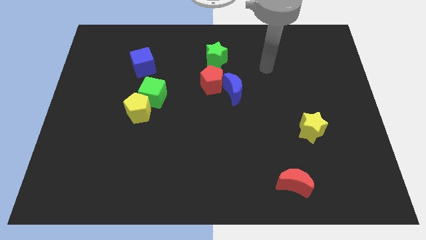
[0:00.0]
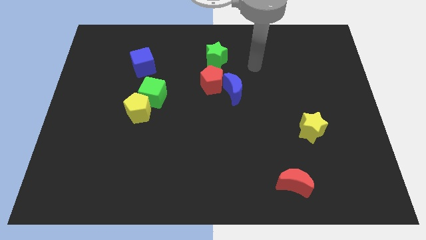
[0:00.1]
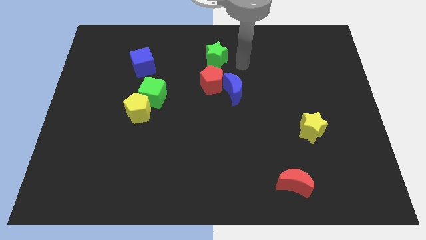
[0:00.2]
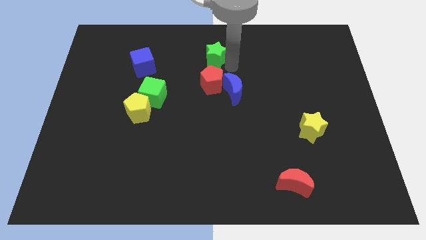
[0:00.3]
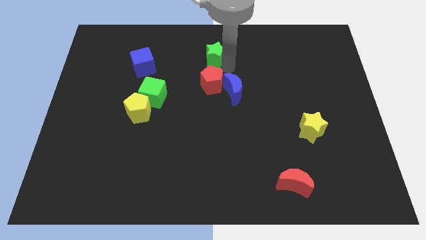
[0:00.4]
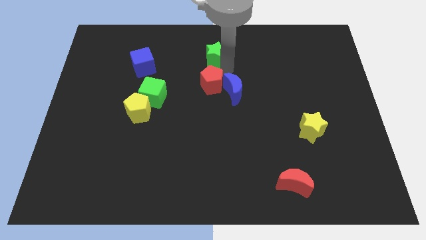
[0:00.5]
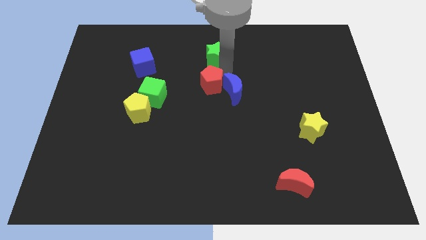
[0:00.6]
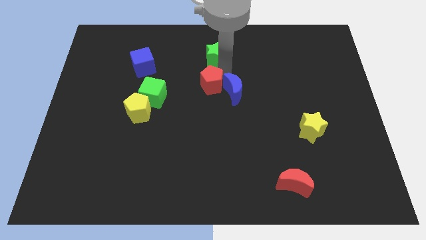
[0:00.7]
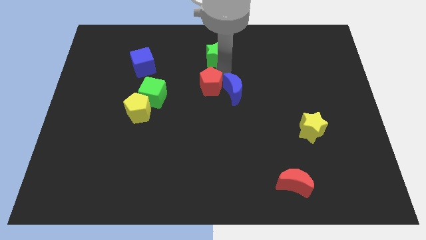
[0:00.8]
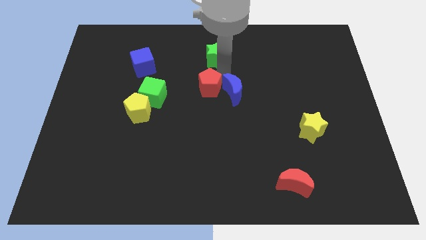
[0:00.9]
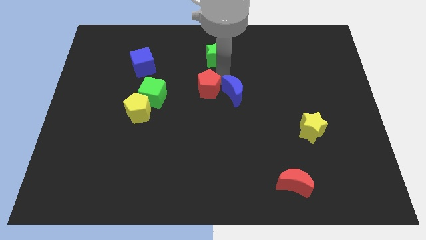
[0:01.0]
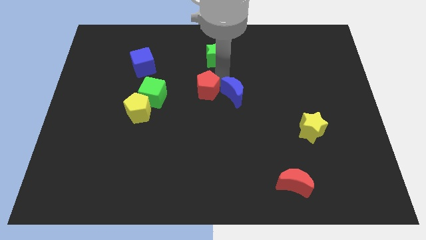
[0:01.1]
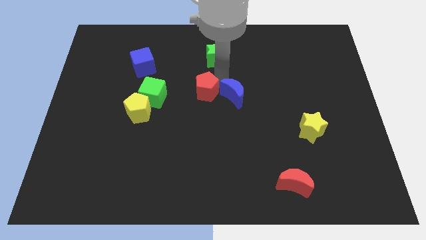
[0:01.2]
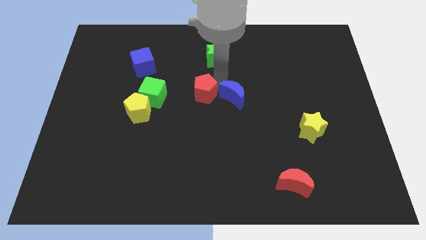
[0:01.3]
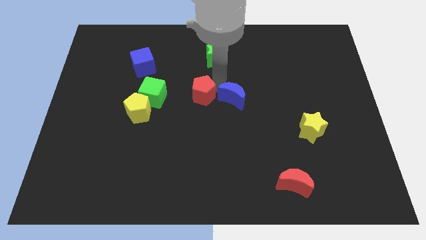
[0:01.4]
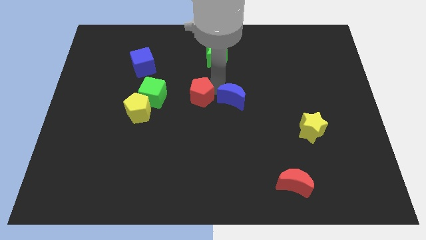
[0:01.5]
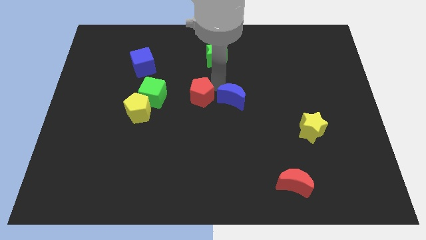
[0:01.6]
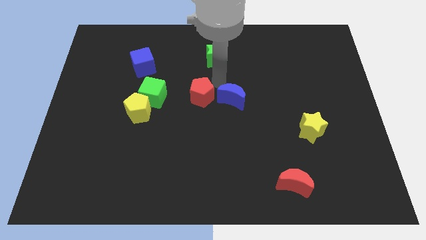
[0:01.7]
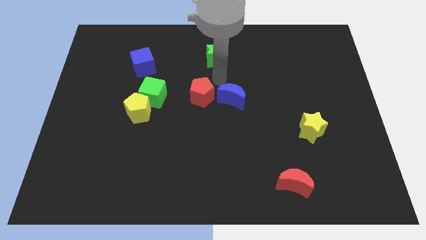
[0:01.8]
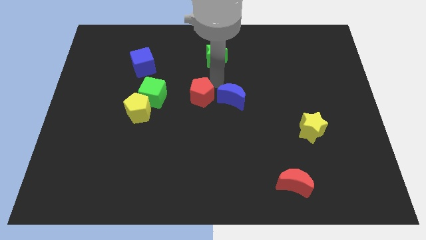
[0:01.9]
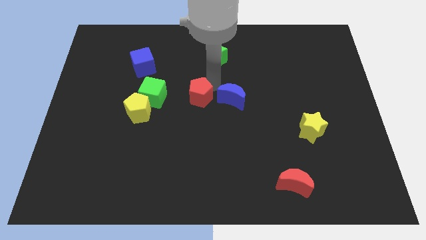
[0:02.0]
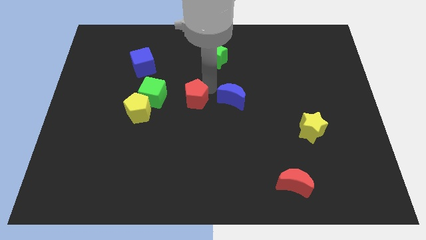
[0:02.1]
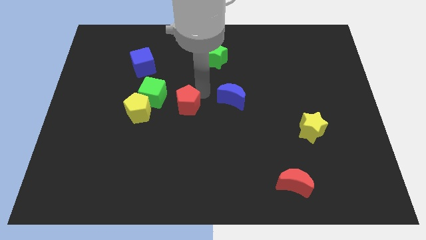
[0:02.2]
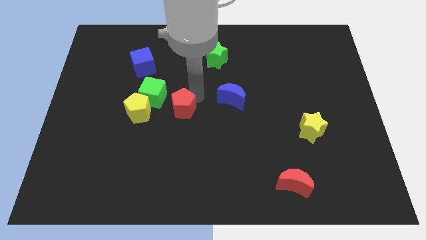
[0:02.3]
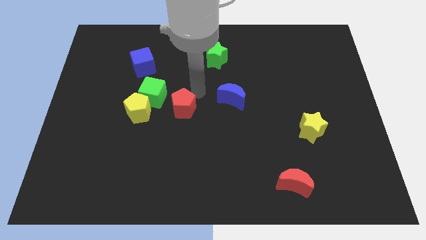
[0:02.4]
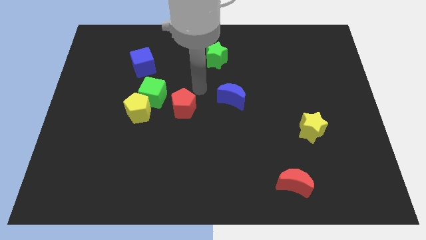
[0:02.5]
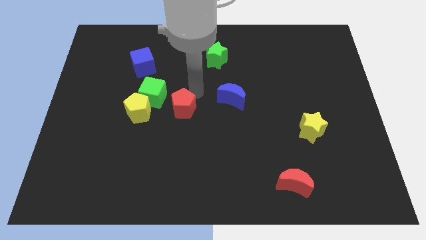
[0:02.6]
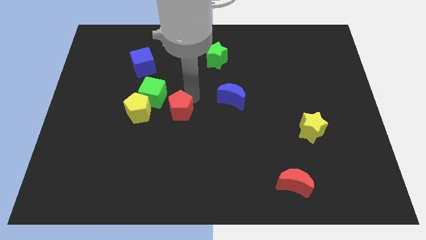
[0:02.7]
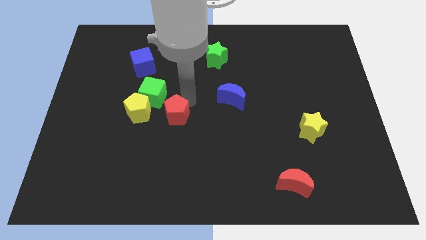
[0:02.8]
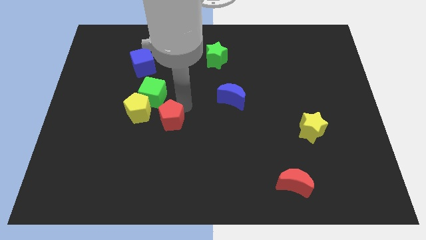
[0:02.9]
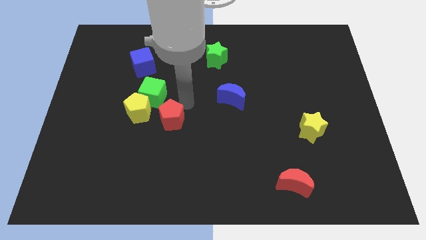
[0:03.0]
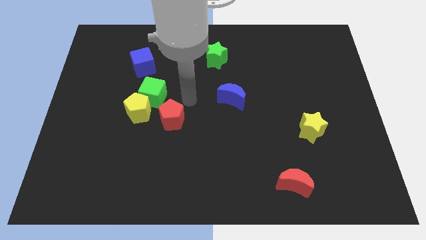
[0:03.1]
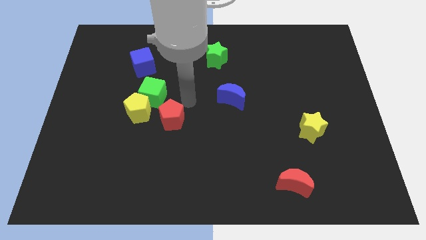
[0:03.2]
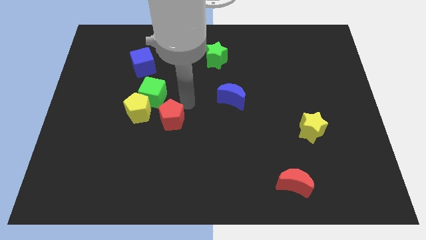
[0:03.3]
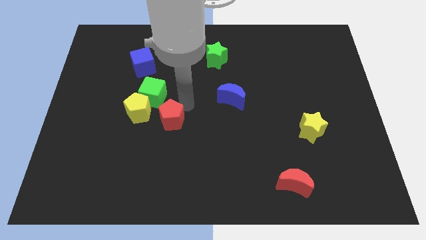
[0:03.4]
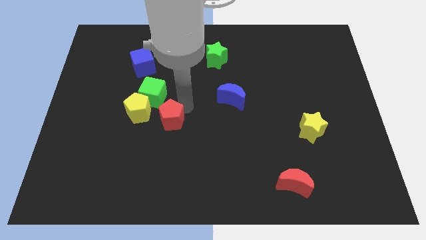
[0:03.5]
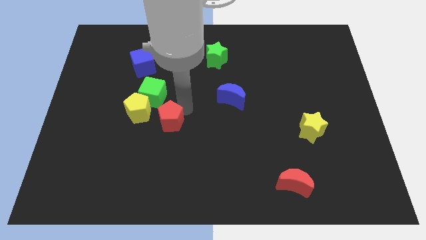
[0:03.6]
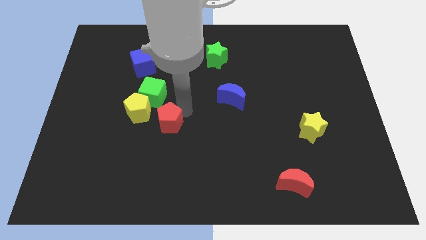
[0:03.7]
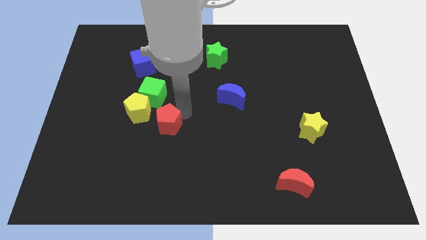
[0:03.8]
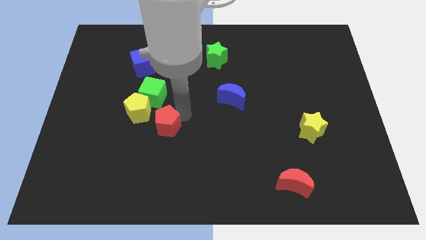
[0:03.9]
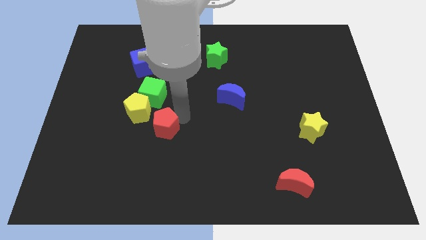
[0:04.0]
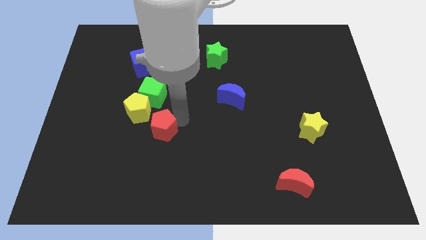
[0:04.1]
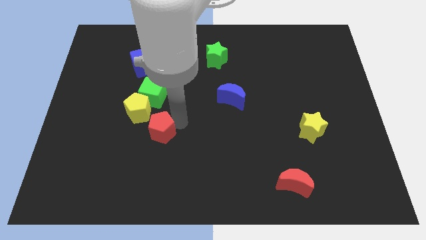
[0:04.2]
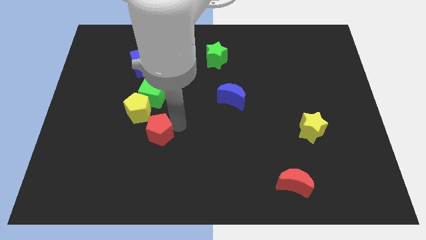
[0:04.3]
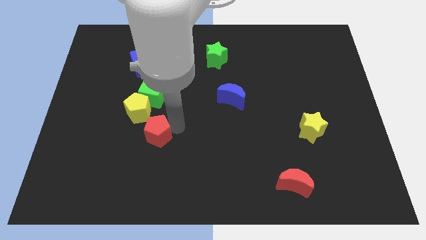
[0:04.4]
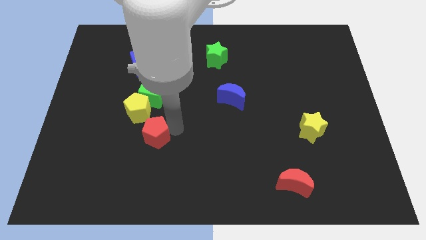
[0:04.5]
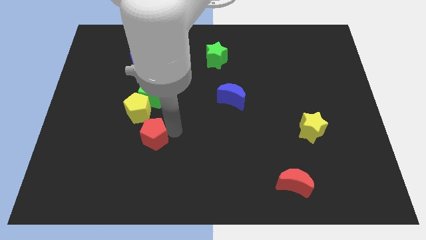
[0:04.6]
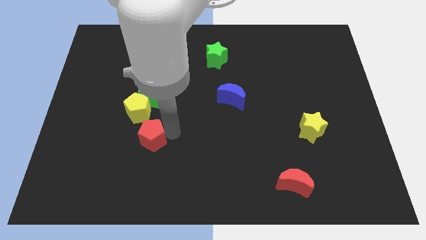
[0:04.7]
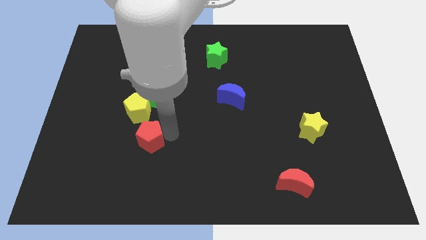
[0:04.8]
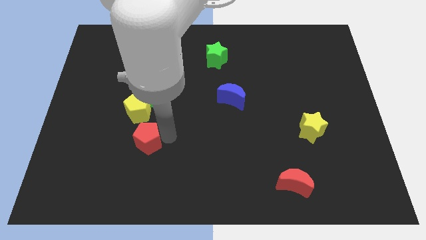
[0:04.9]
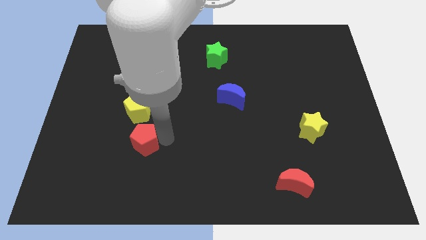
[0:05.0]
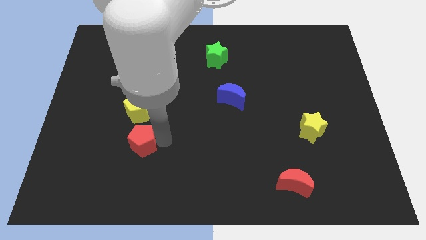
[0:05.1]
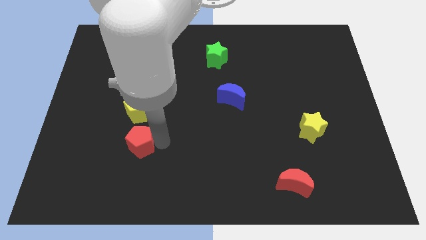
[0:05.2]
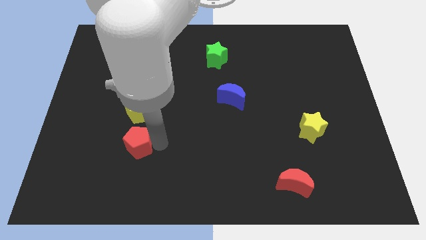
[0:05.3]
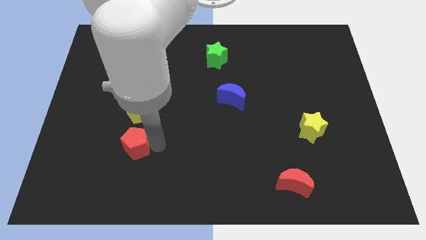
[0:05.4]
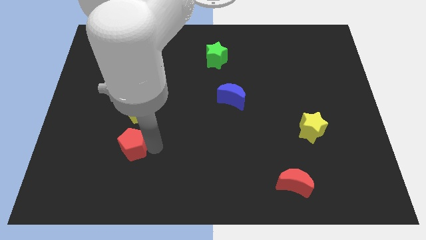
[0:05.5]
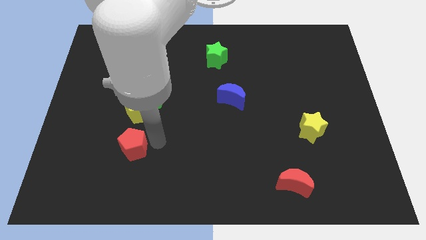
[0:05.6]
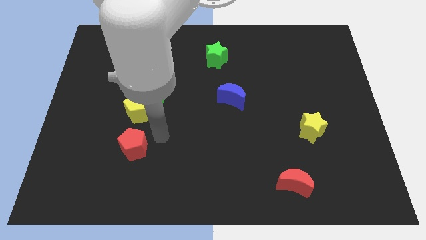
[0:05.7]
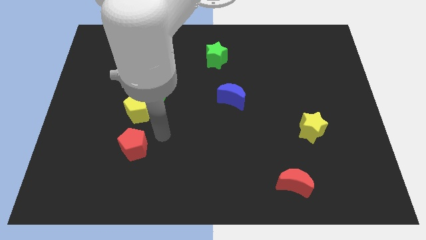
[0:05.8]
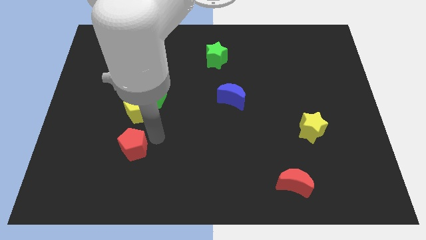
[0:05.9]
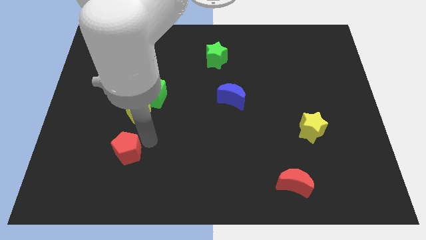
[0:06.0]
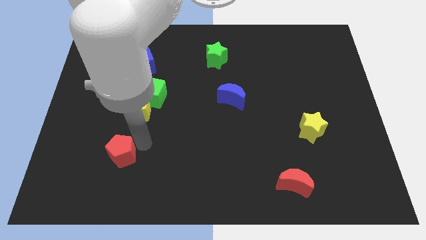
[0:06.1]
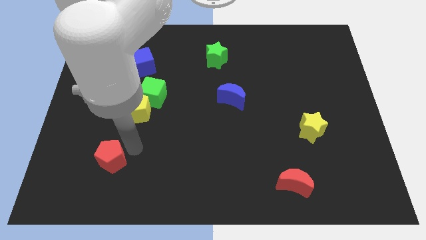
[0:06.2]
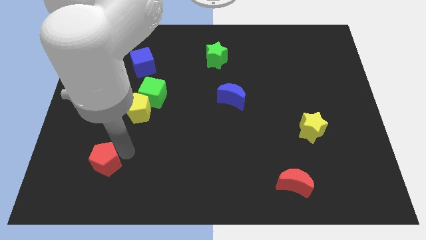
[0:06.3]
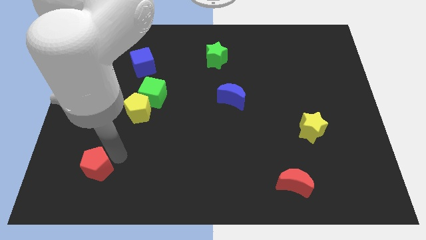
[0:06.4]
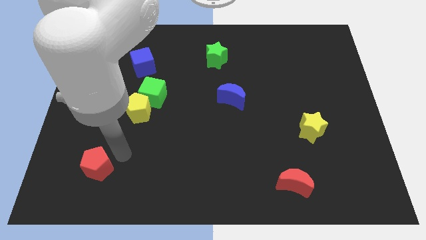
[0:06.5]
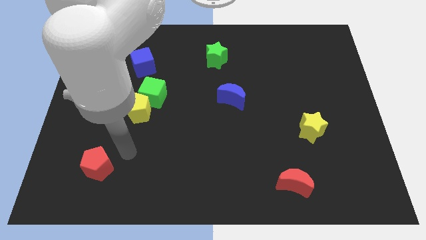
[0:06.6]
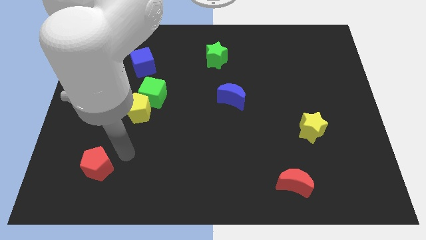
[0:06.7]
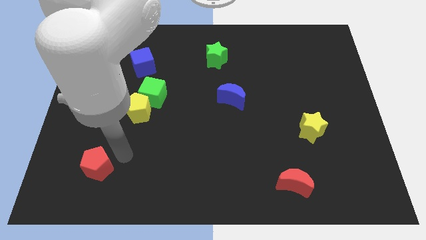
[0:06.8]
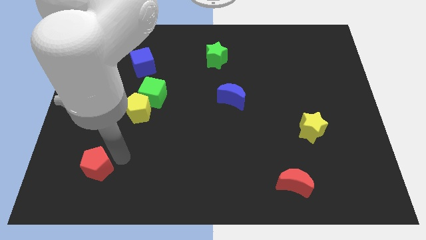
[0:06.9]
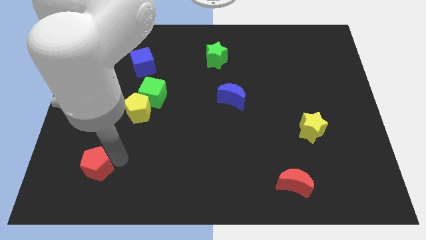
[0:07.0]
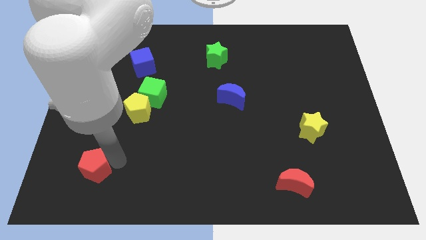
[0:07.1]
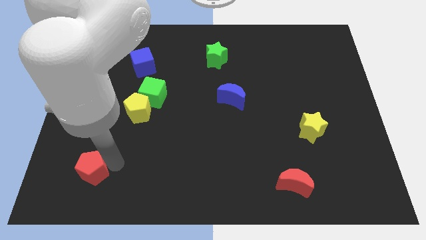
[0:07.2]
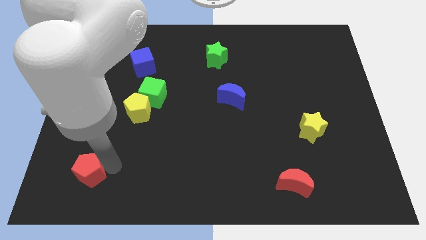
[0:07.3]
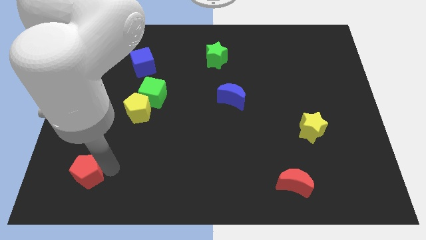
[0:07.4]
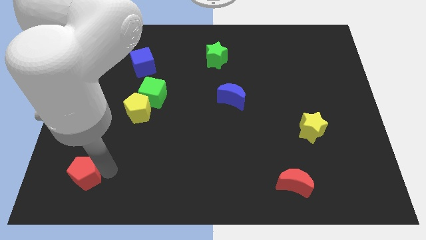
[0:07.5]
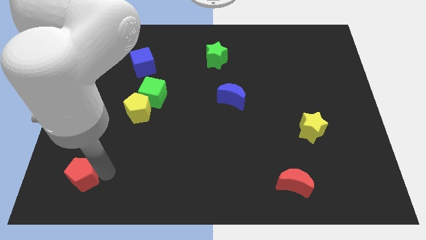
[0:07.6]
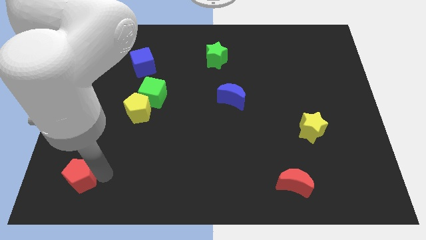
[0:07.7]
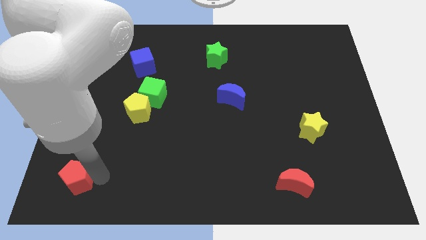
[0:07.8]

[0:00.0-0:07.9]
push the red pentagon to the bottom left corner
